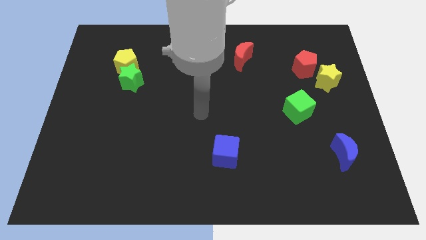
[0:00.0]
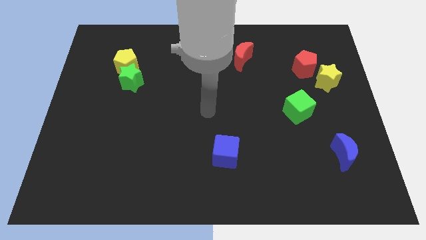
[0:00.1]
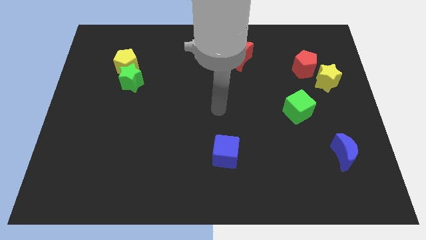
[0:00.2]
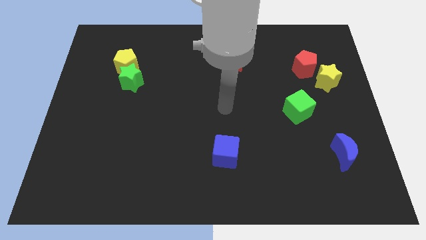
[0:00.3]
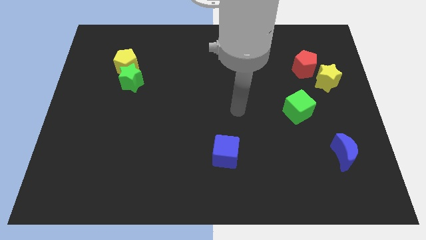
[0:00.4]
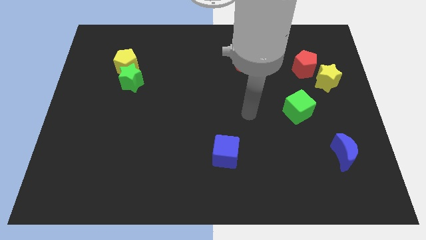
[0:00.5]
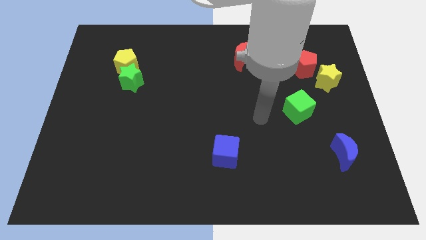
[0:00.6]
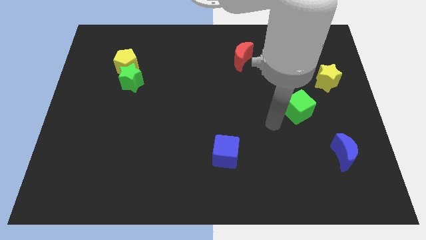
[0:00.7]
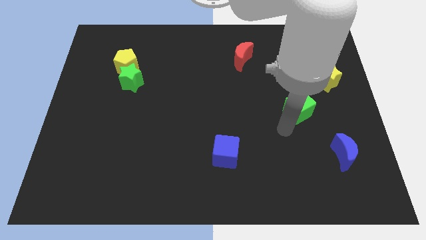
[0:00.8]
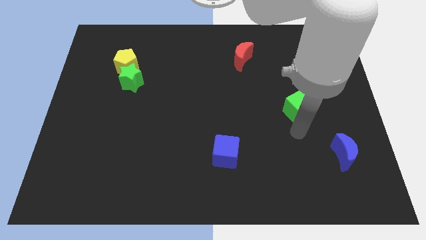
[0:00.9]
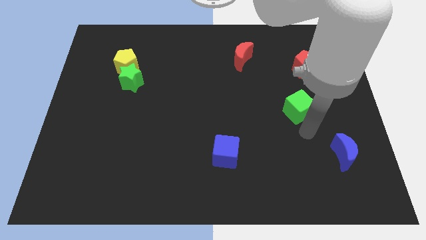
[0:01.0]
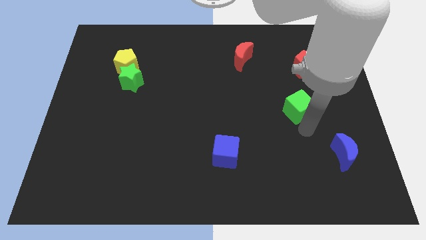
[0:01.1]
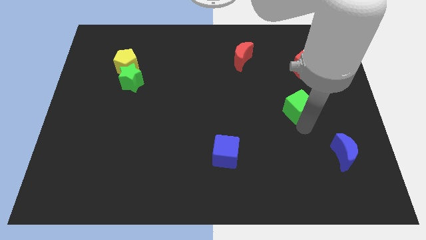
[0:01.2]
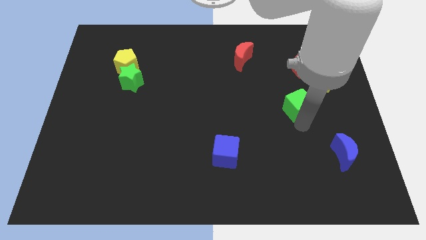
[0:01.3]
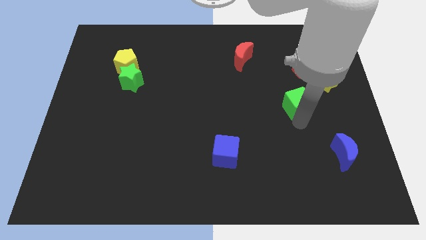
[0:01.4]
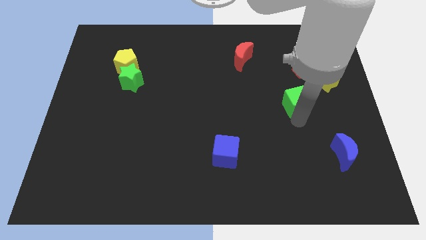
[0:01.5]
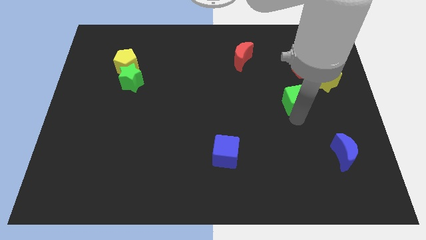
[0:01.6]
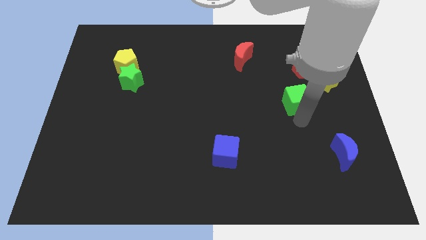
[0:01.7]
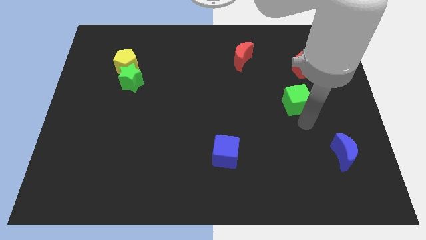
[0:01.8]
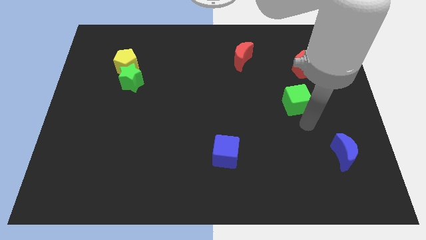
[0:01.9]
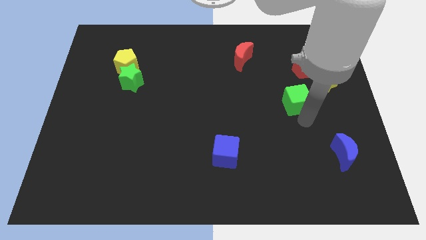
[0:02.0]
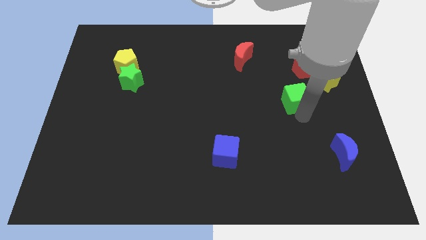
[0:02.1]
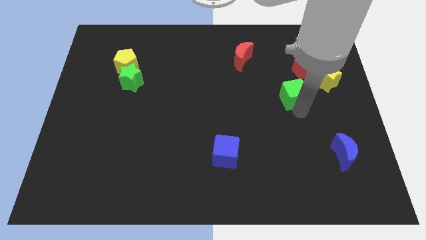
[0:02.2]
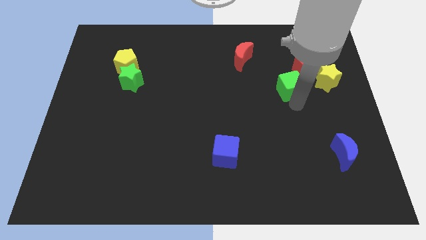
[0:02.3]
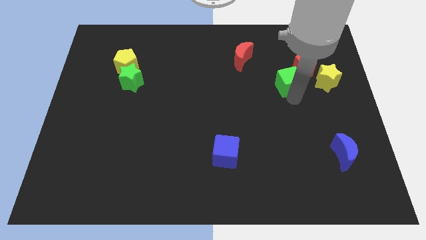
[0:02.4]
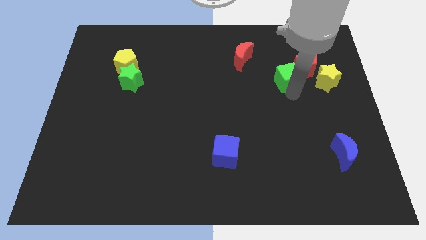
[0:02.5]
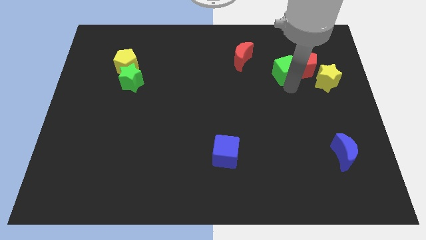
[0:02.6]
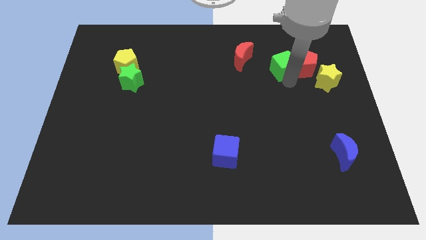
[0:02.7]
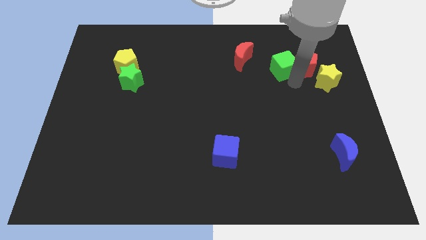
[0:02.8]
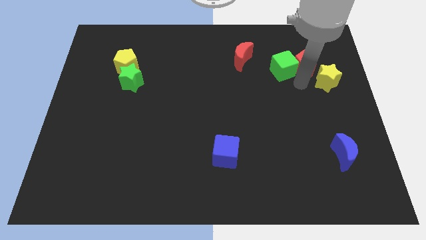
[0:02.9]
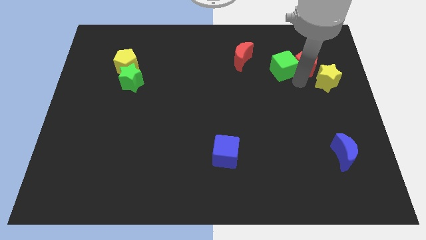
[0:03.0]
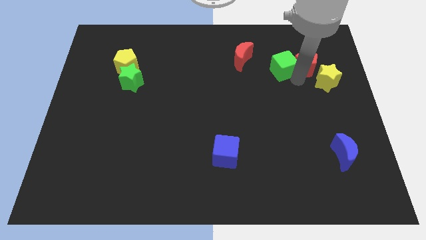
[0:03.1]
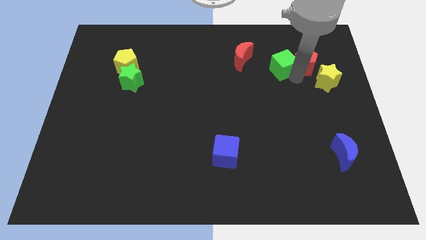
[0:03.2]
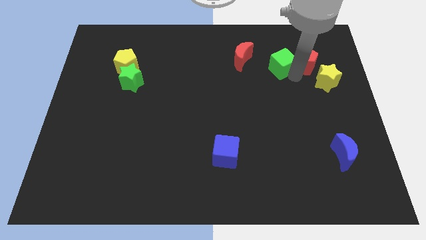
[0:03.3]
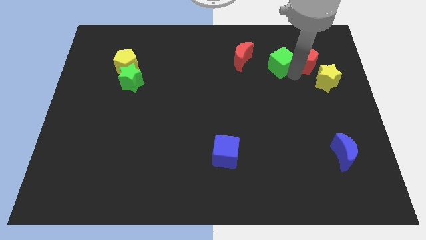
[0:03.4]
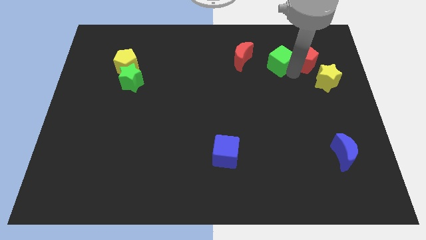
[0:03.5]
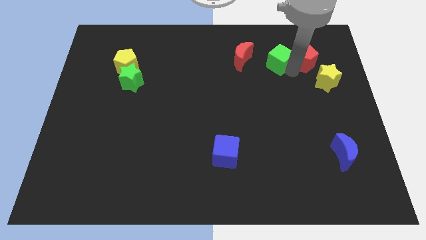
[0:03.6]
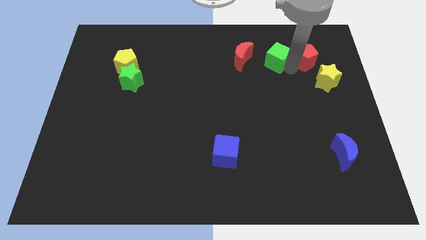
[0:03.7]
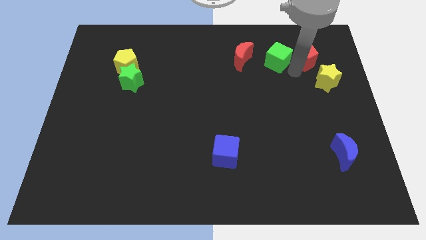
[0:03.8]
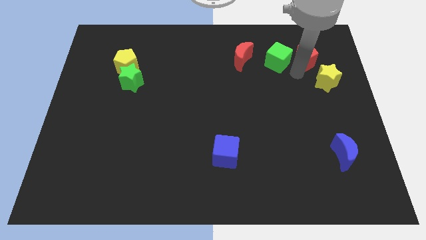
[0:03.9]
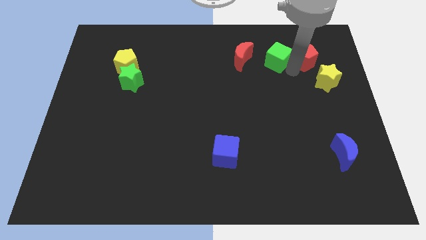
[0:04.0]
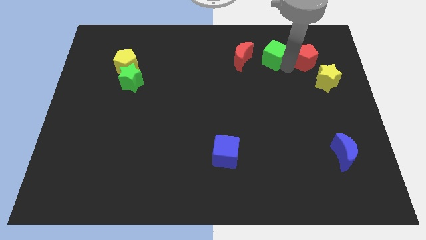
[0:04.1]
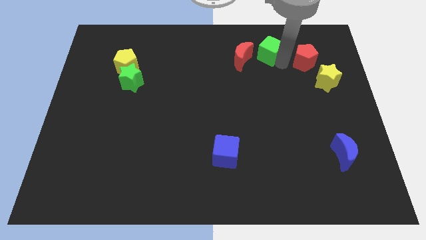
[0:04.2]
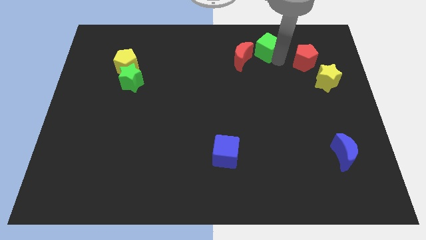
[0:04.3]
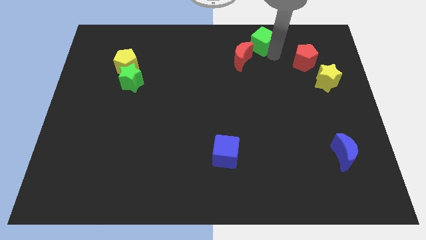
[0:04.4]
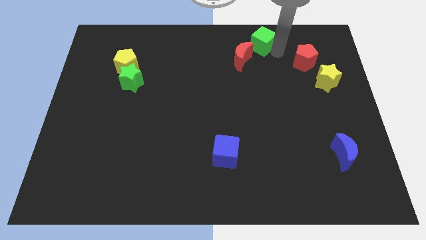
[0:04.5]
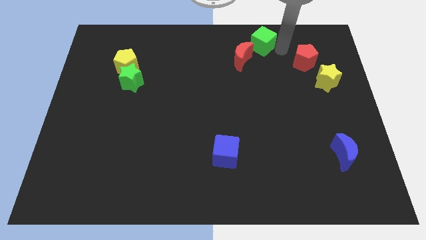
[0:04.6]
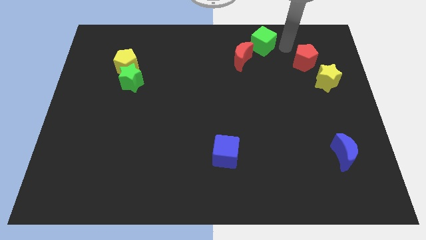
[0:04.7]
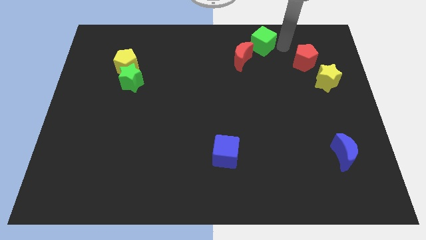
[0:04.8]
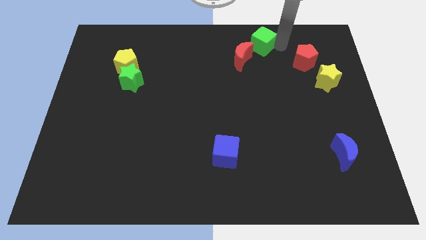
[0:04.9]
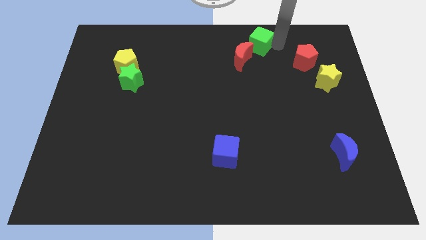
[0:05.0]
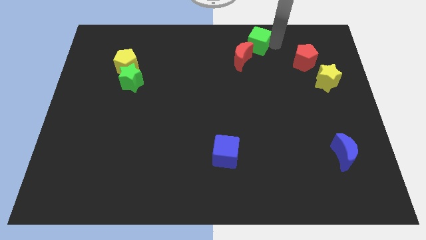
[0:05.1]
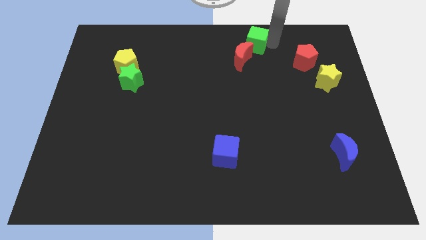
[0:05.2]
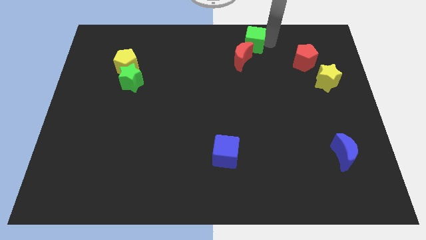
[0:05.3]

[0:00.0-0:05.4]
put the green cube to the top side

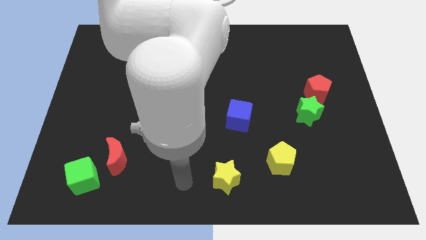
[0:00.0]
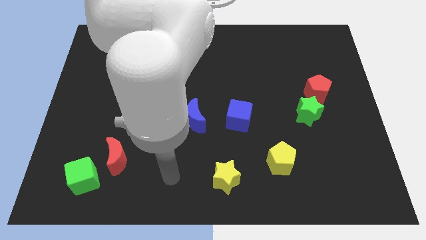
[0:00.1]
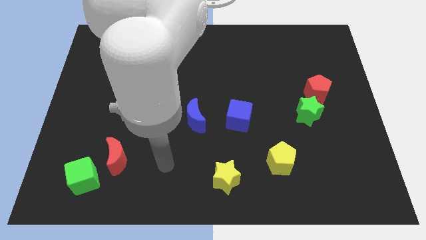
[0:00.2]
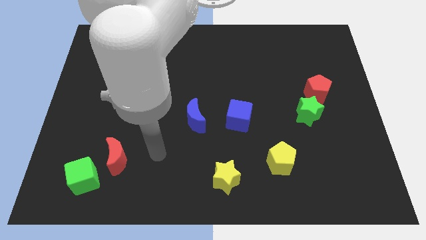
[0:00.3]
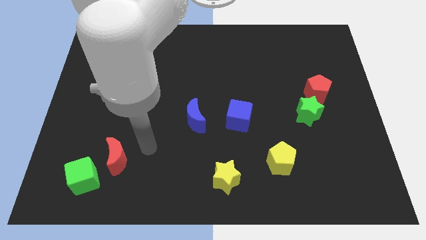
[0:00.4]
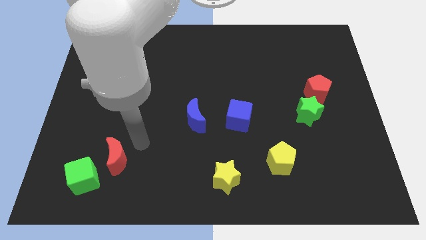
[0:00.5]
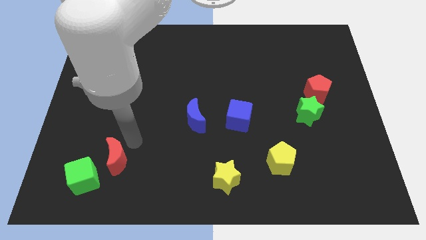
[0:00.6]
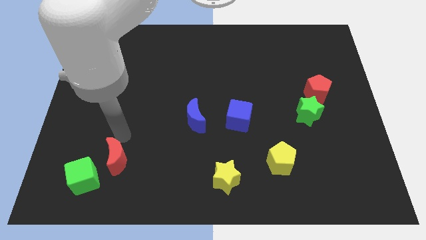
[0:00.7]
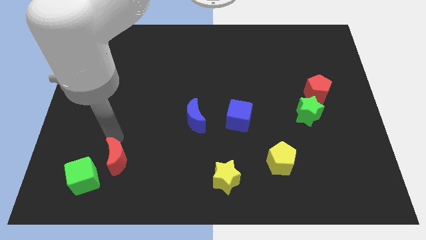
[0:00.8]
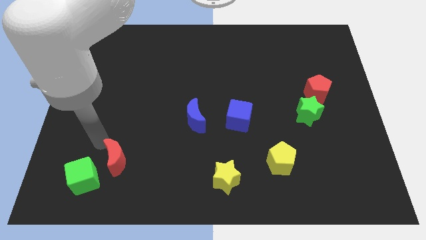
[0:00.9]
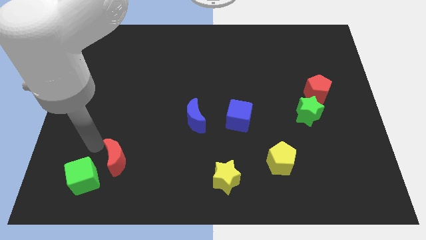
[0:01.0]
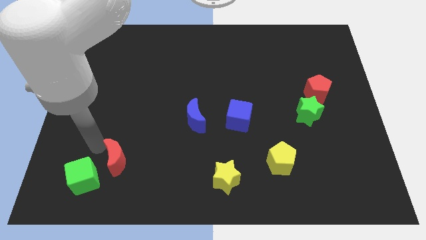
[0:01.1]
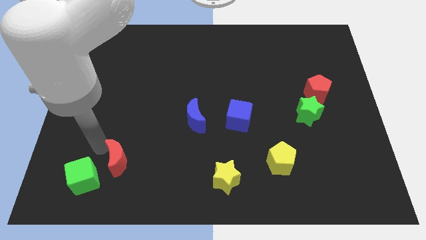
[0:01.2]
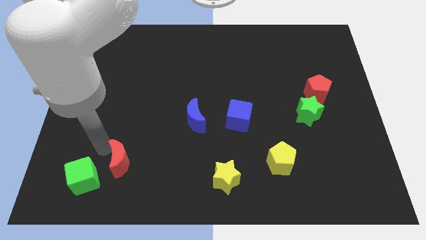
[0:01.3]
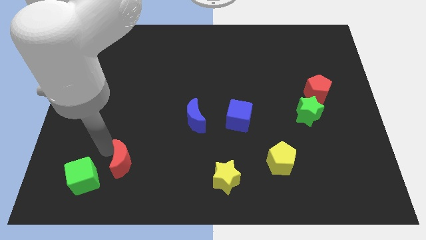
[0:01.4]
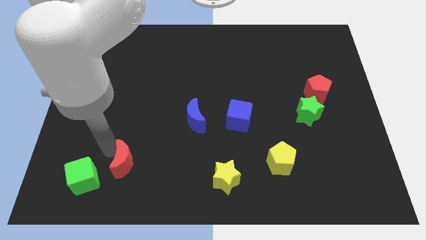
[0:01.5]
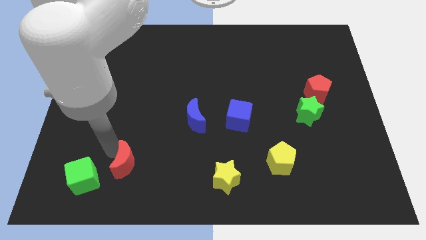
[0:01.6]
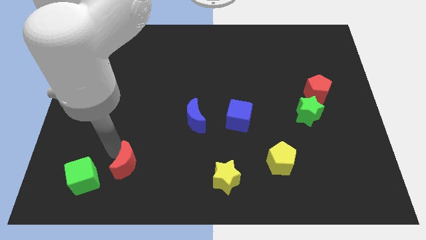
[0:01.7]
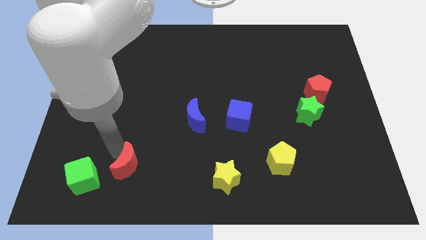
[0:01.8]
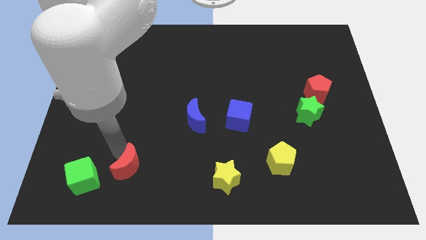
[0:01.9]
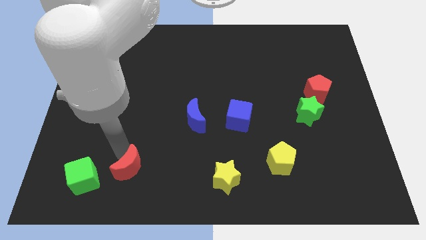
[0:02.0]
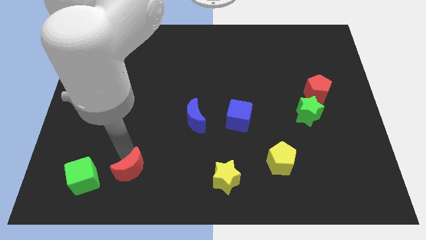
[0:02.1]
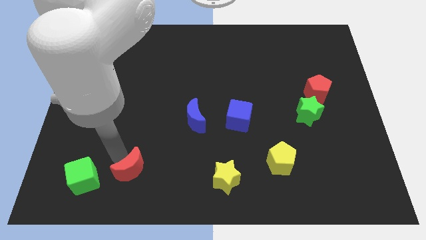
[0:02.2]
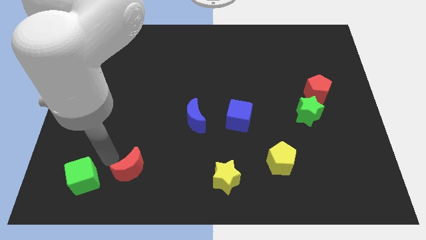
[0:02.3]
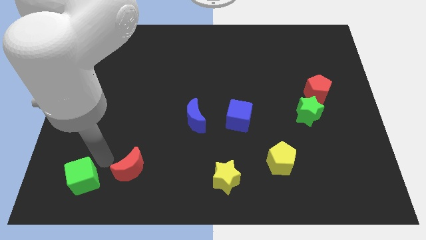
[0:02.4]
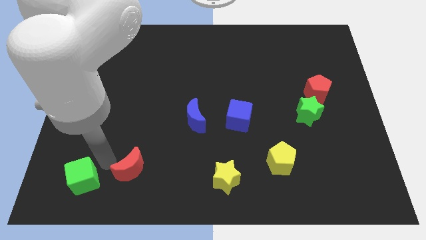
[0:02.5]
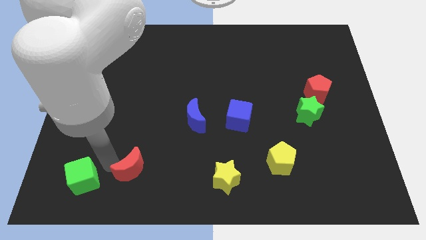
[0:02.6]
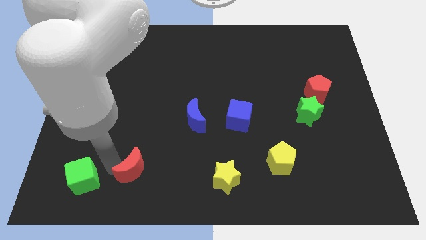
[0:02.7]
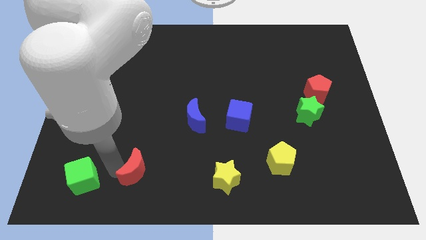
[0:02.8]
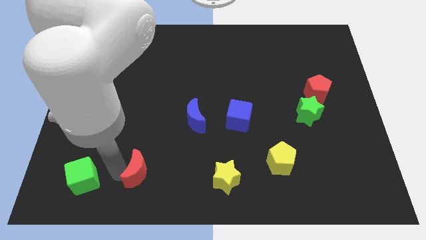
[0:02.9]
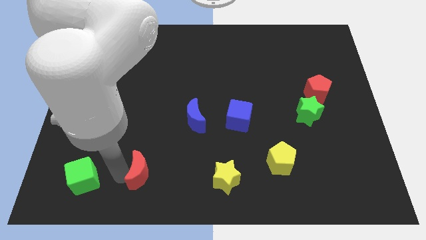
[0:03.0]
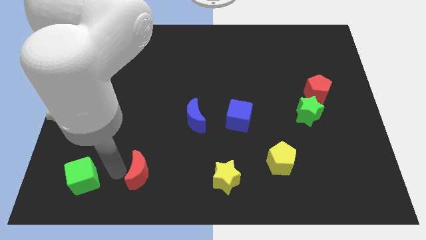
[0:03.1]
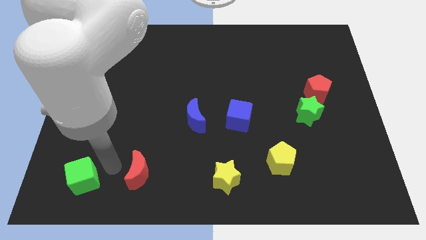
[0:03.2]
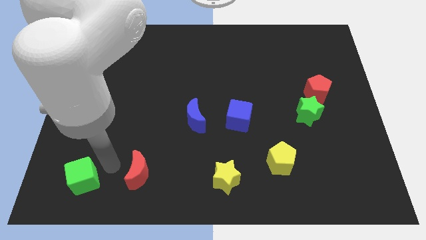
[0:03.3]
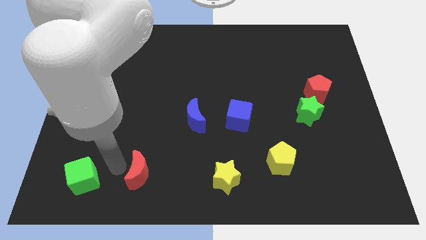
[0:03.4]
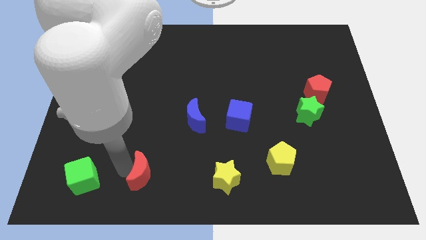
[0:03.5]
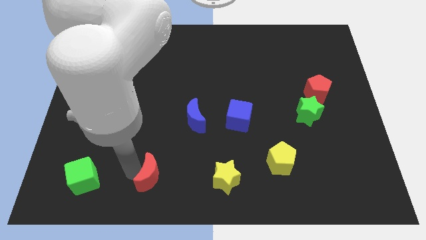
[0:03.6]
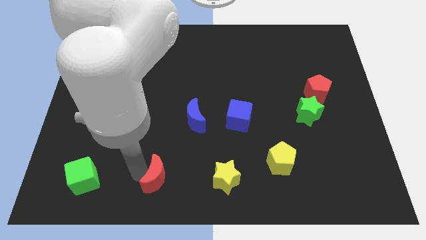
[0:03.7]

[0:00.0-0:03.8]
slide the red moon to the bottom side
